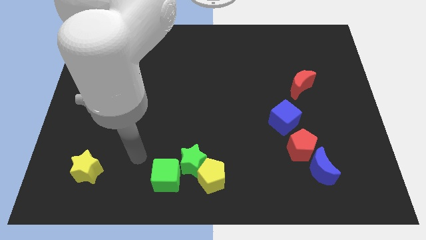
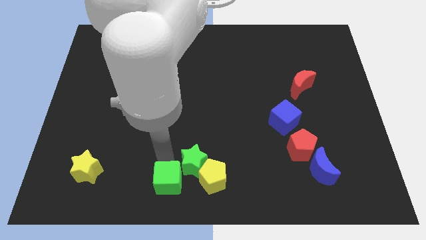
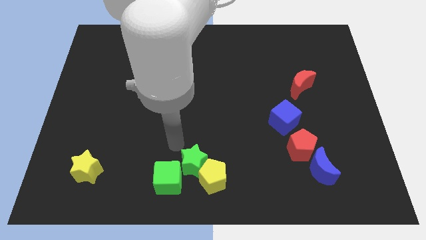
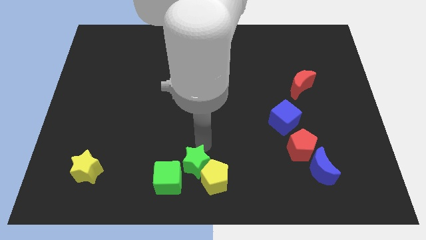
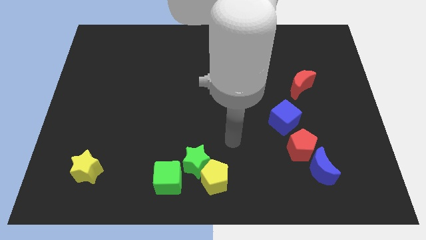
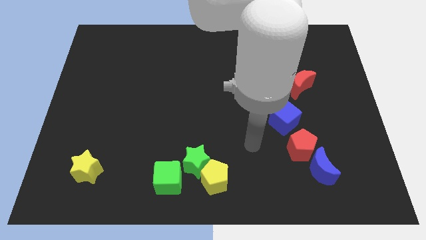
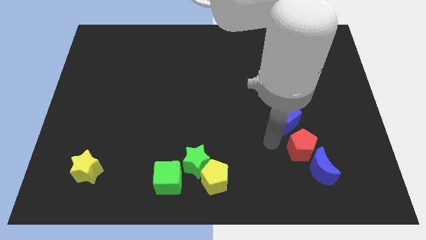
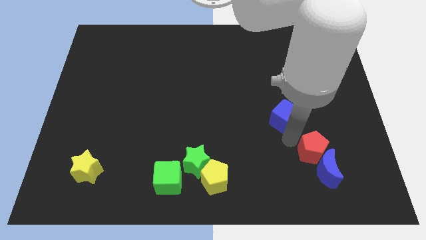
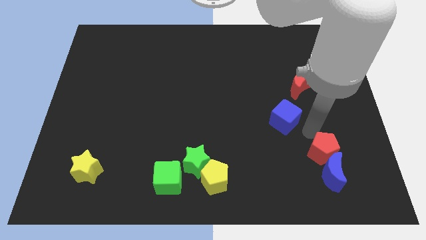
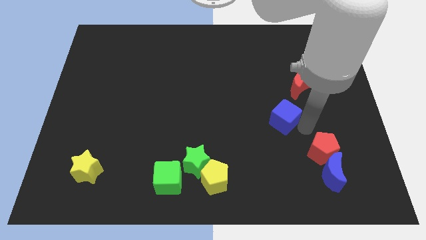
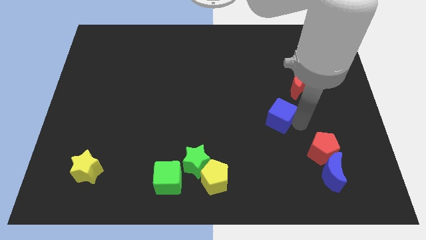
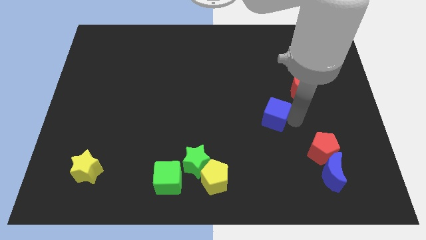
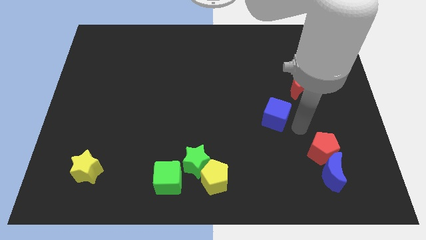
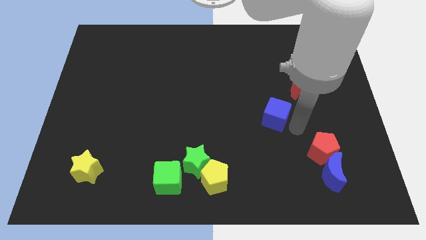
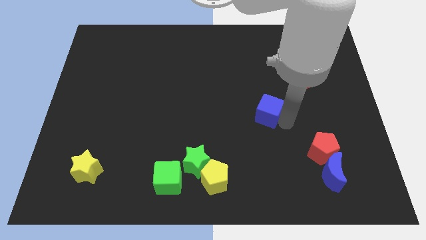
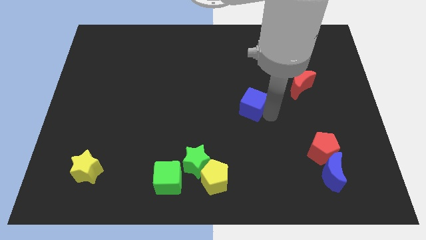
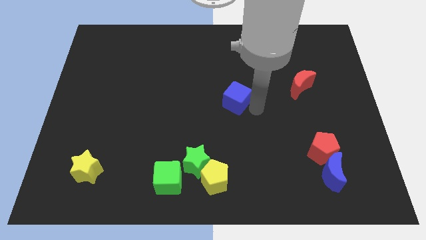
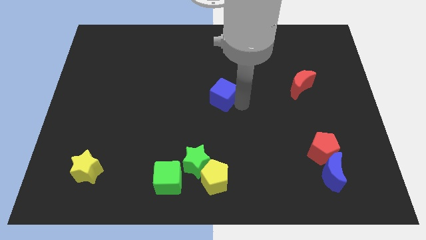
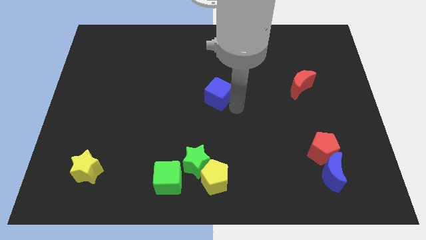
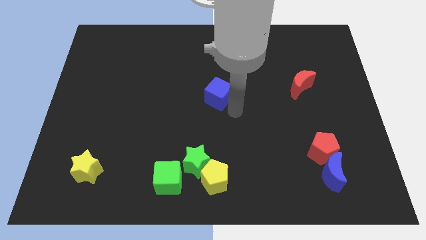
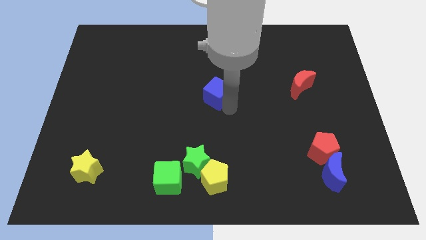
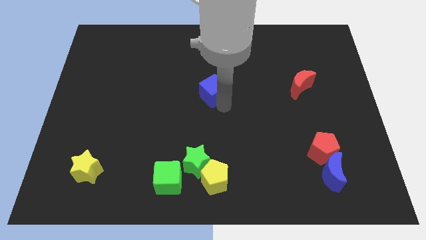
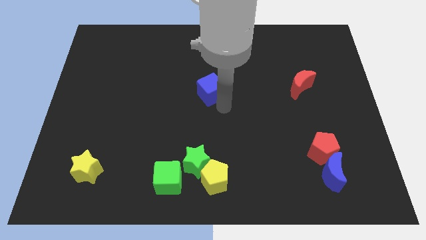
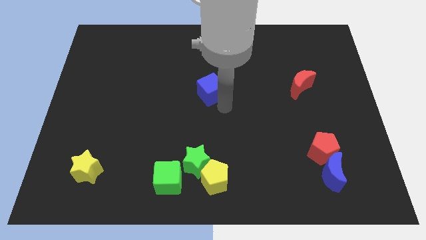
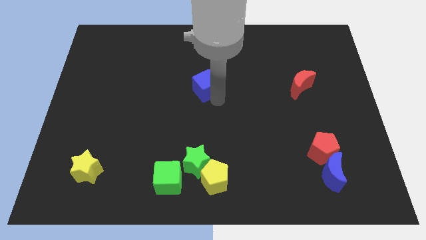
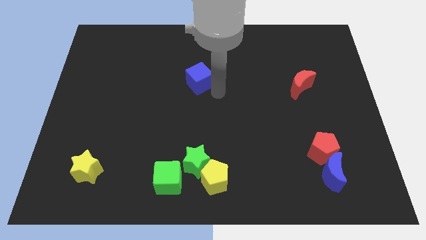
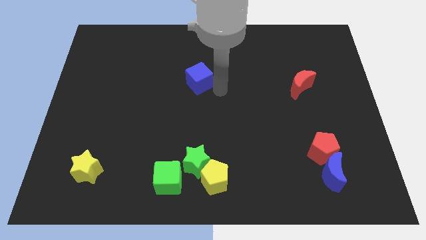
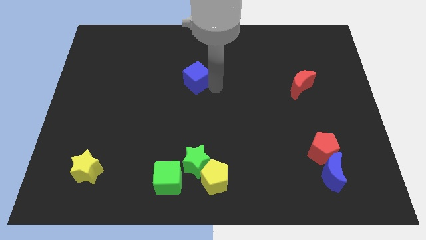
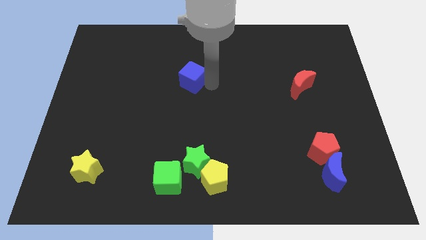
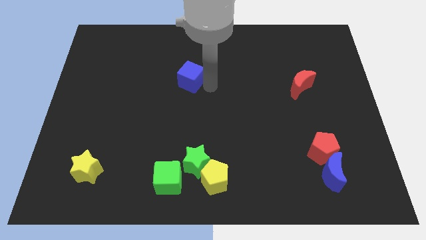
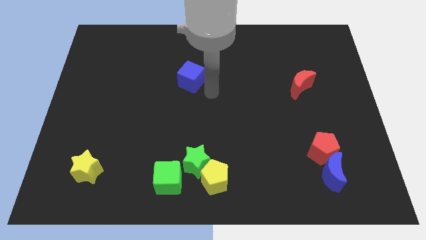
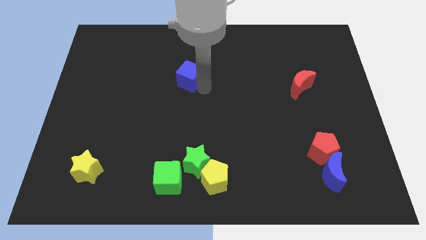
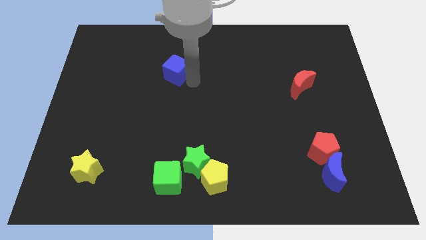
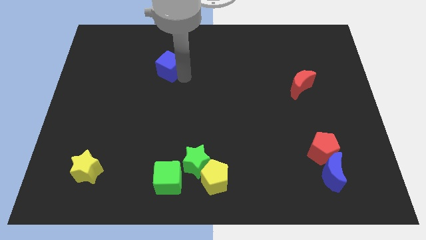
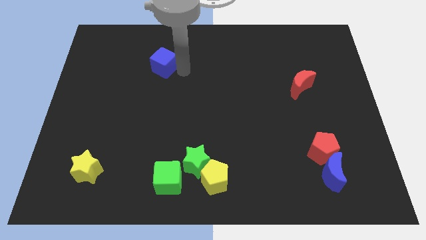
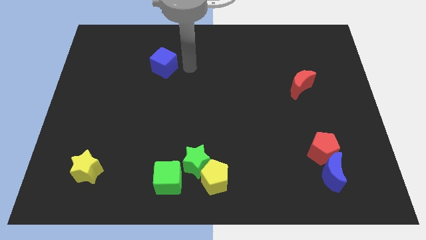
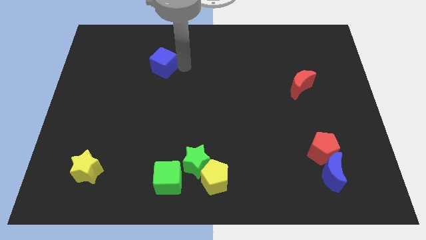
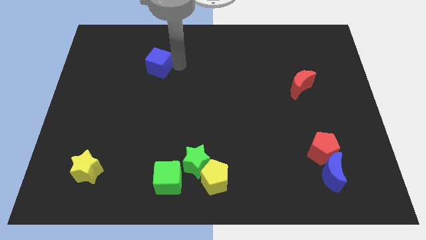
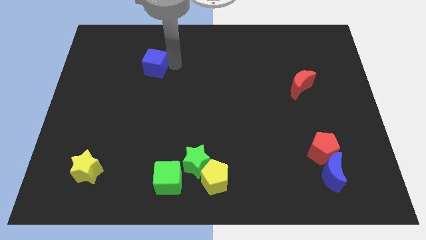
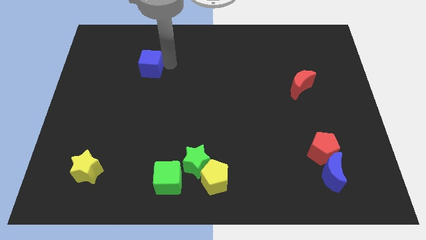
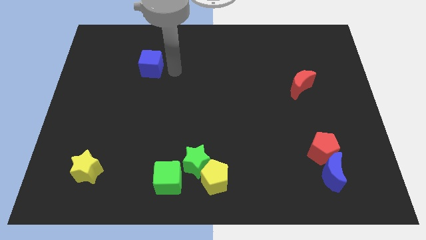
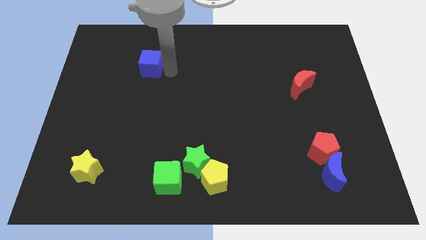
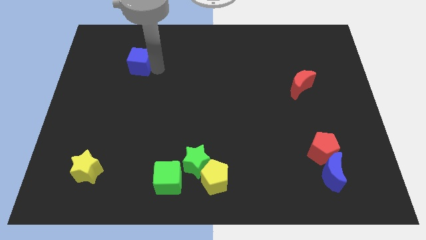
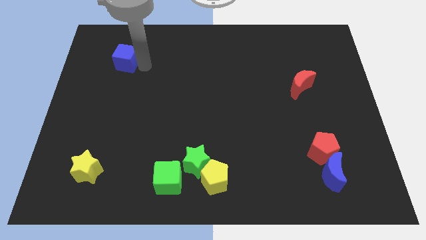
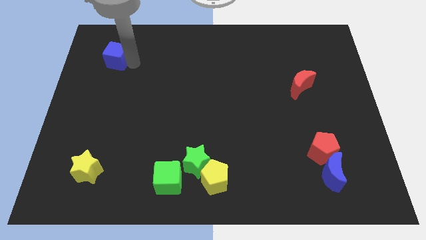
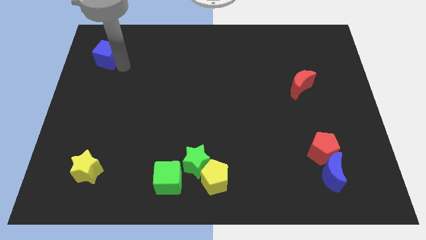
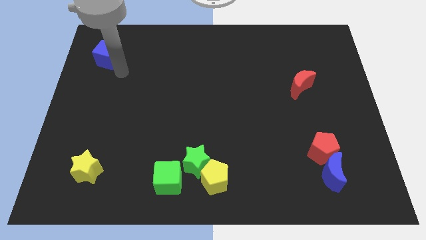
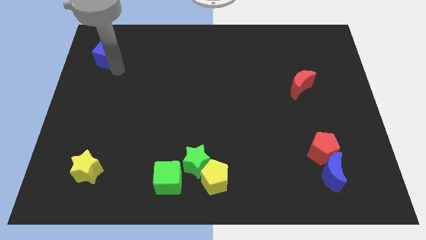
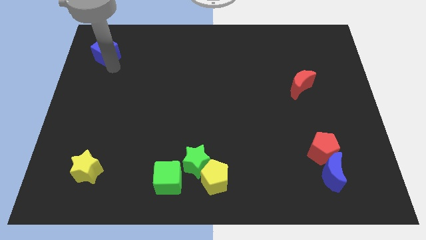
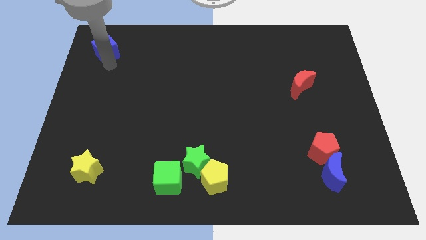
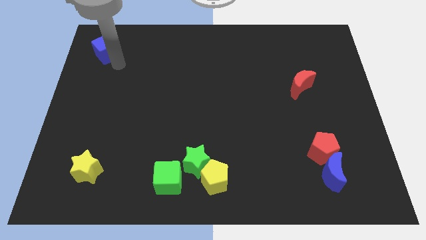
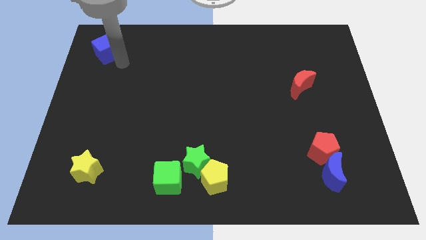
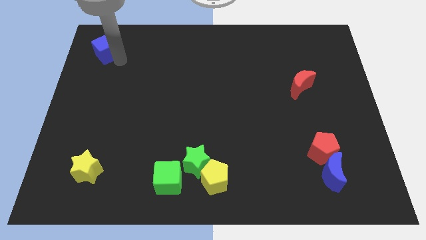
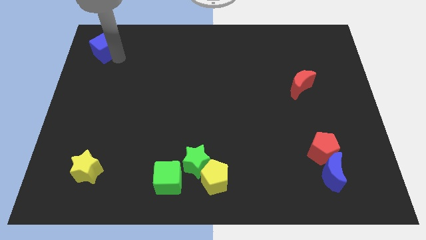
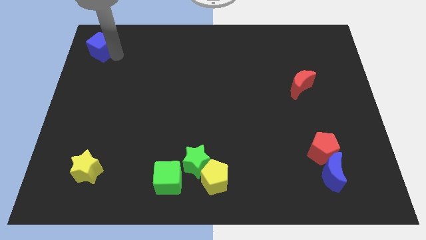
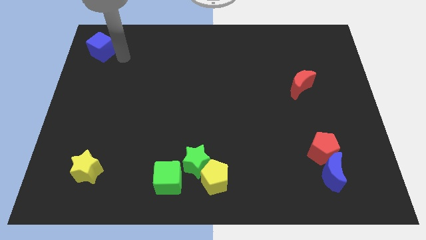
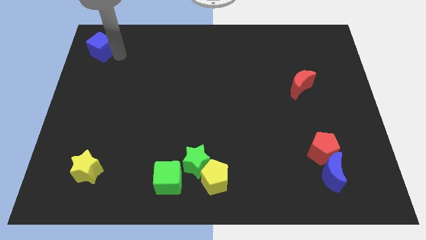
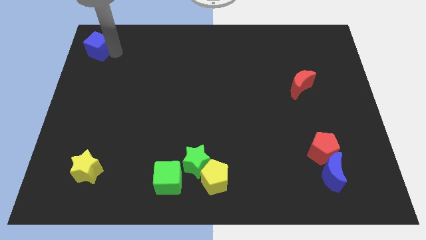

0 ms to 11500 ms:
put the blue cube to the top left of the board

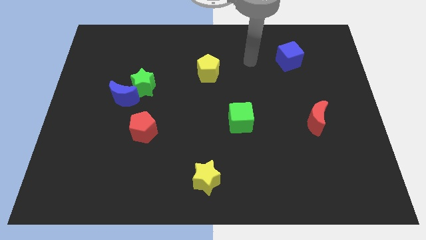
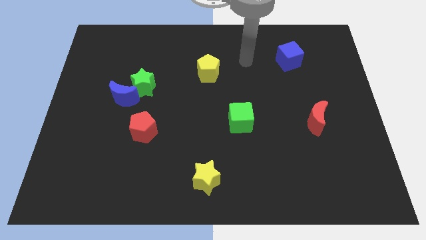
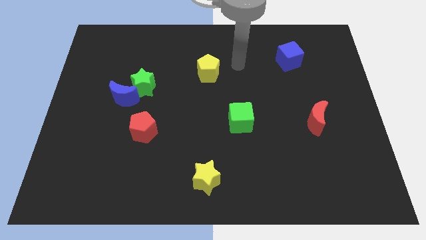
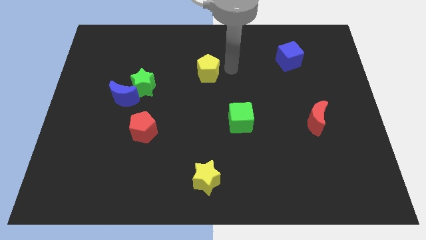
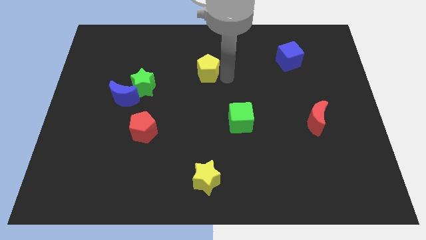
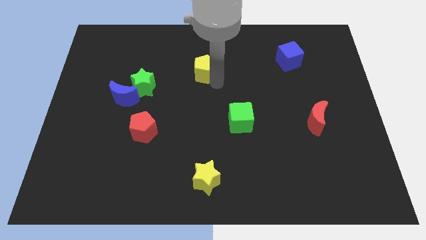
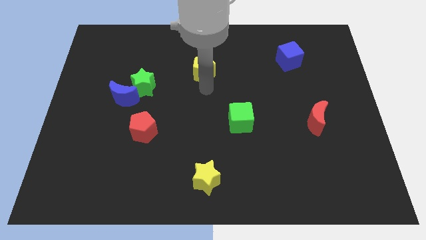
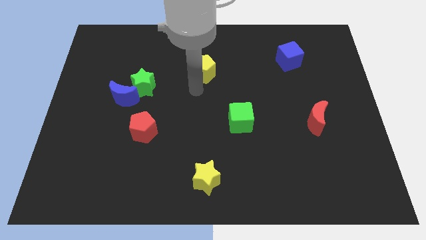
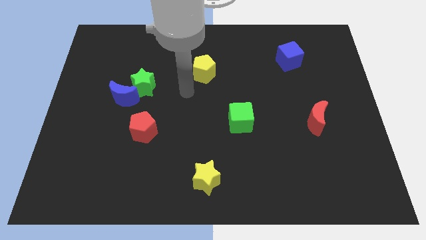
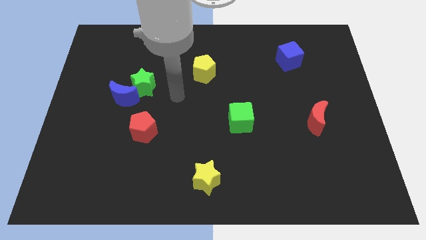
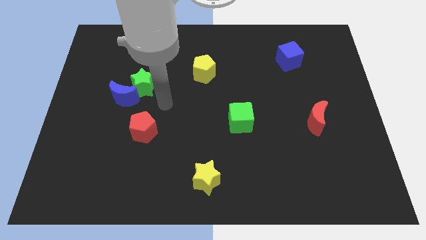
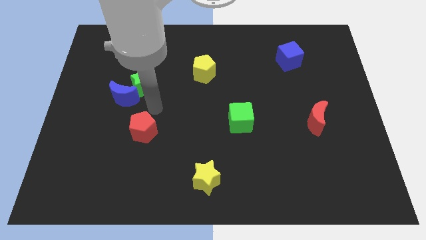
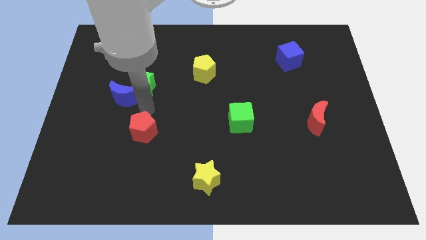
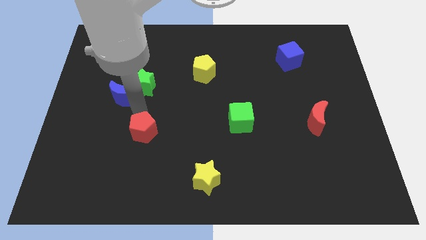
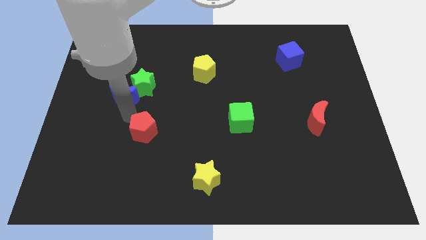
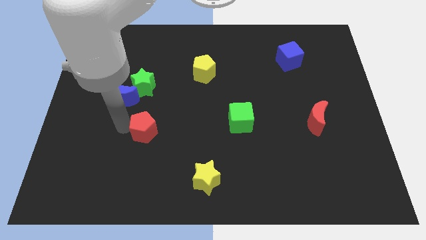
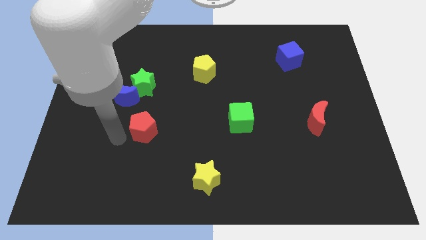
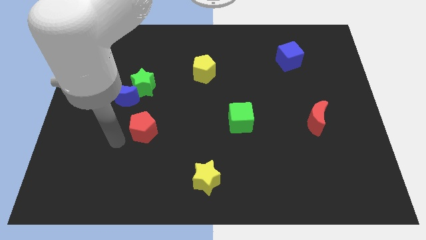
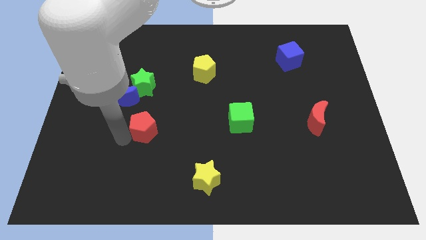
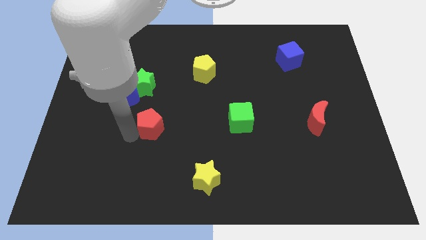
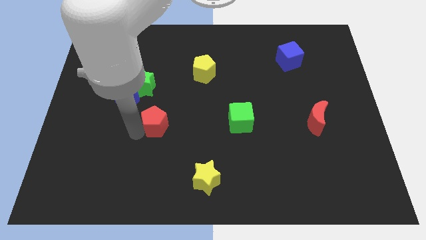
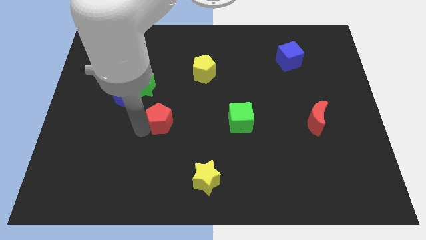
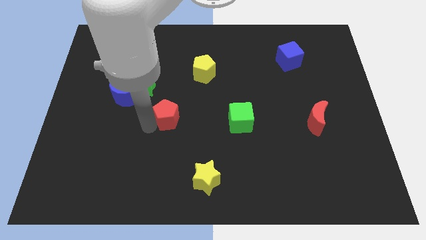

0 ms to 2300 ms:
put the red pentagon to the middle of the board
